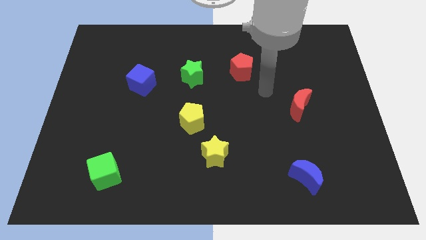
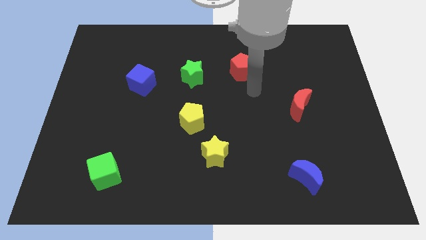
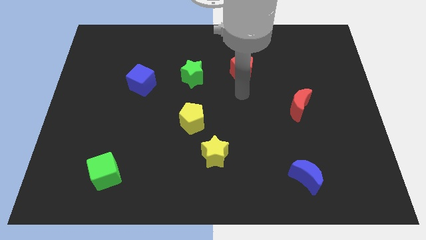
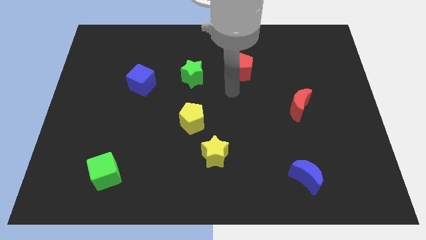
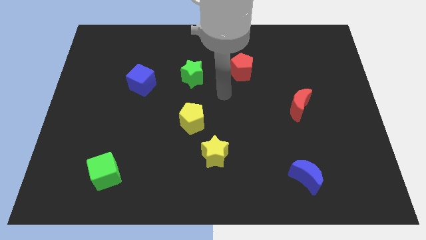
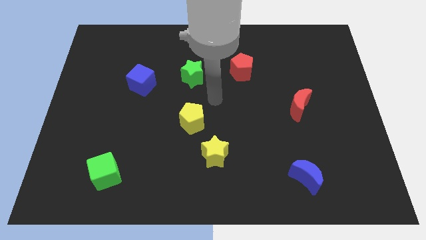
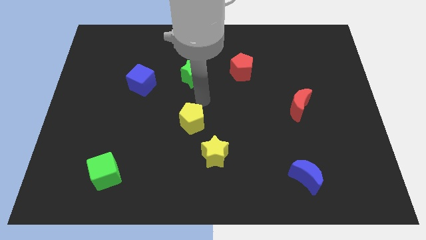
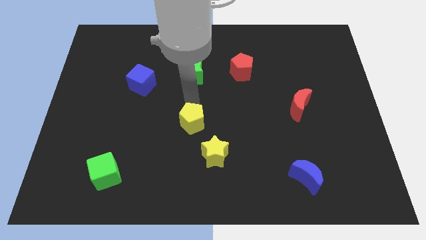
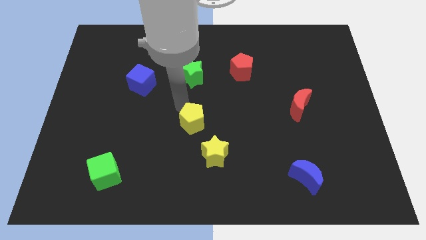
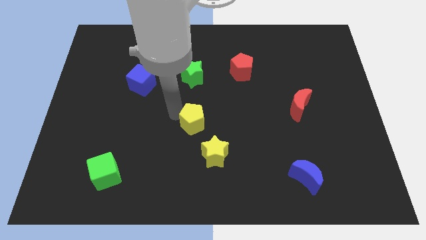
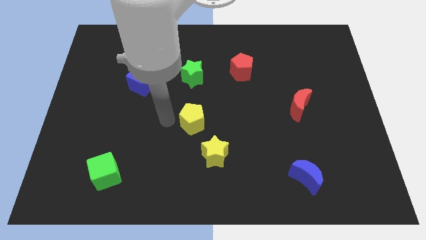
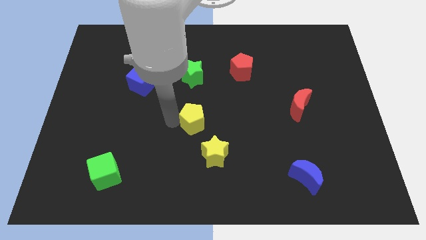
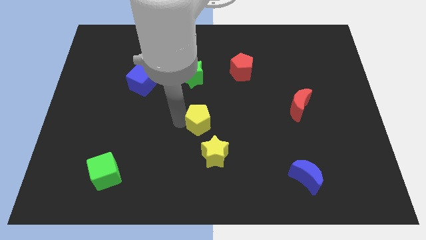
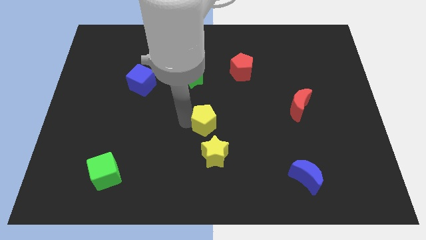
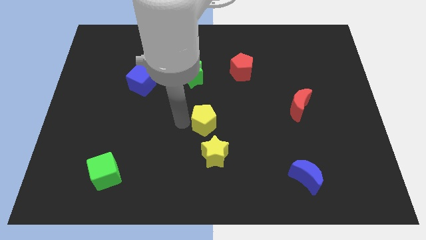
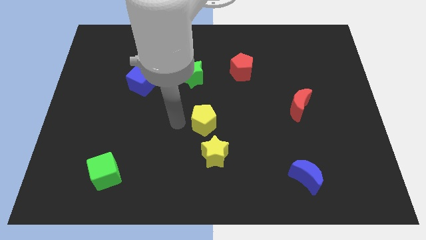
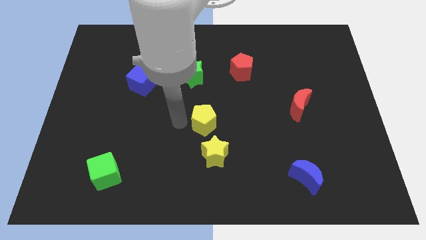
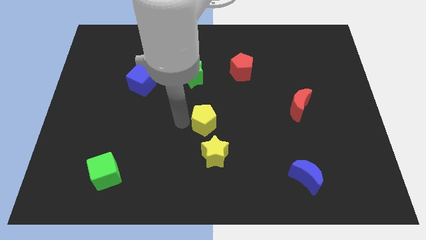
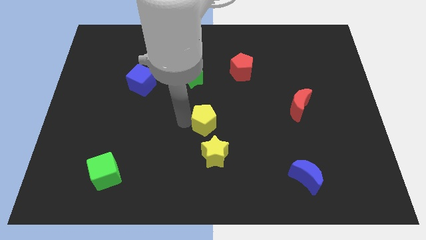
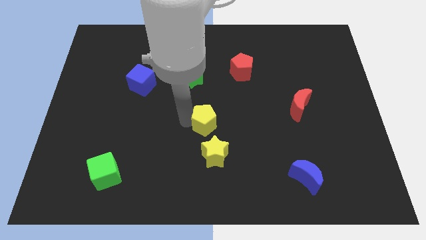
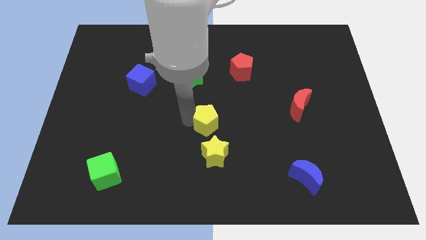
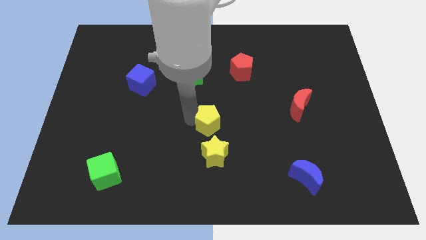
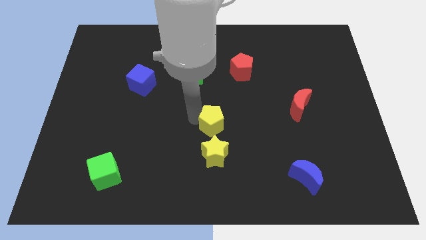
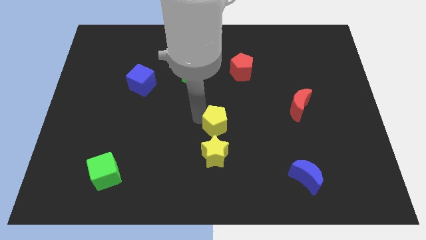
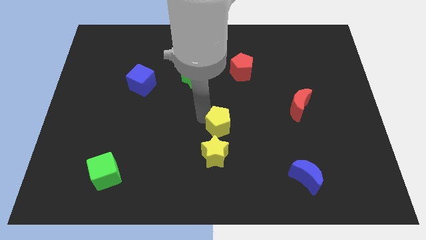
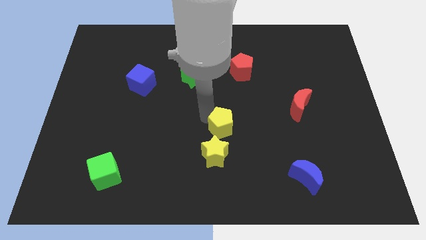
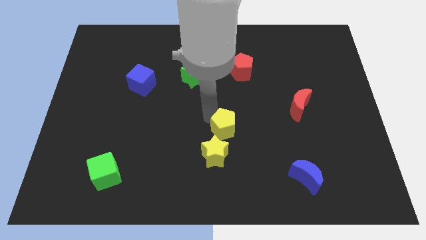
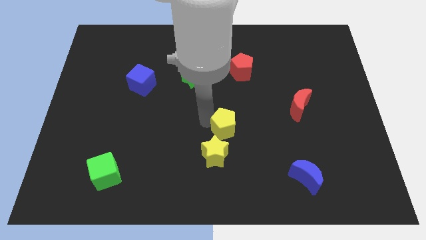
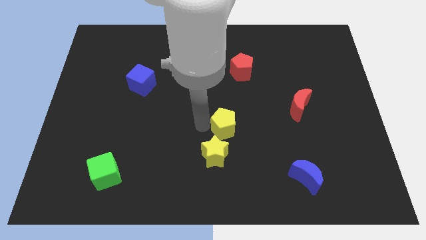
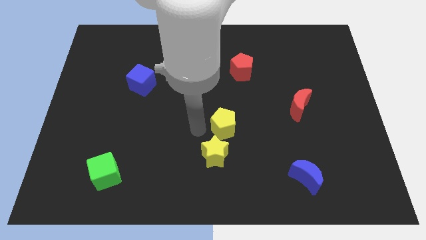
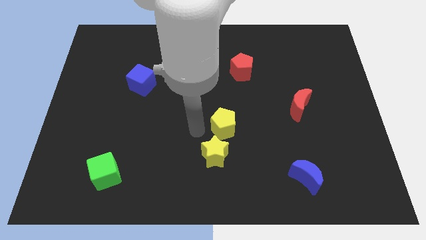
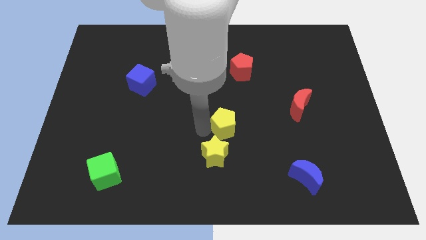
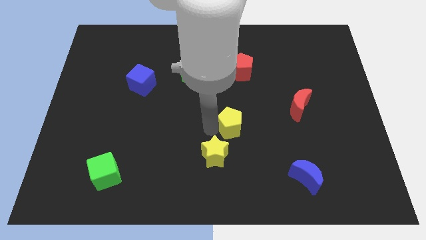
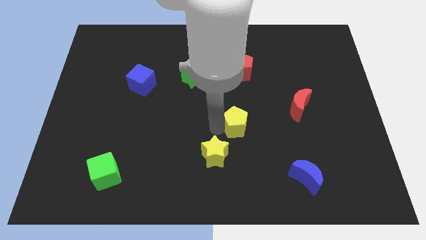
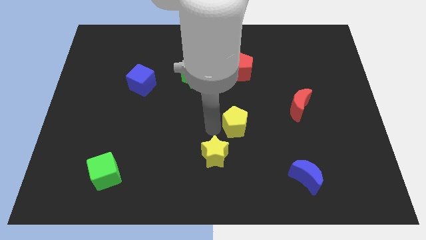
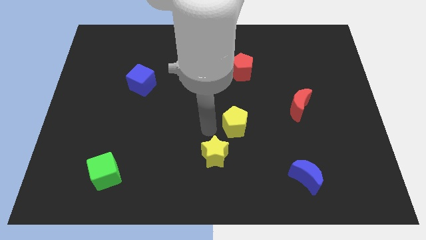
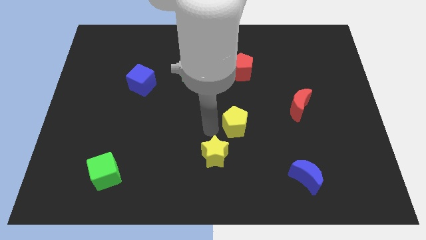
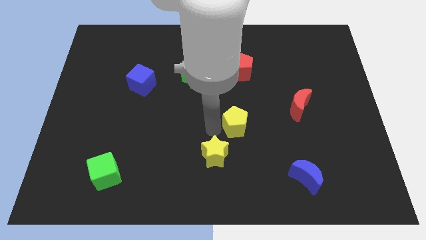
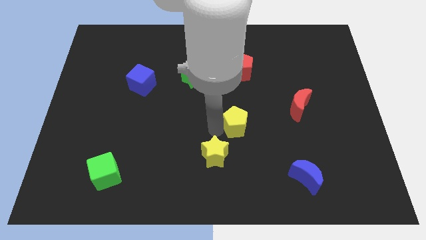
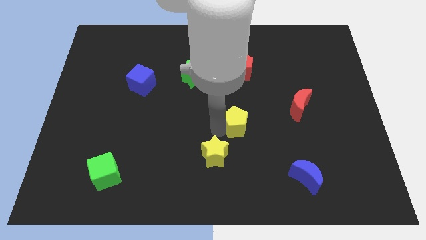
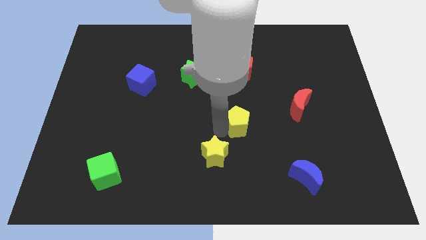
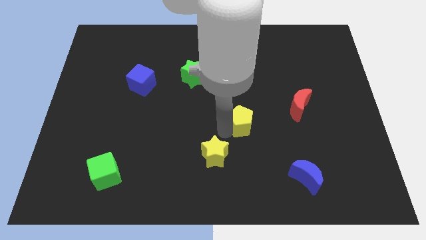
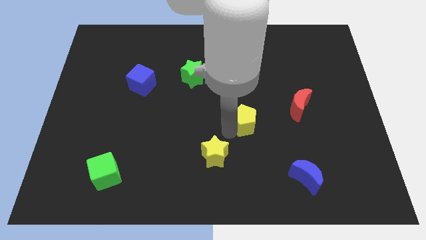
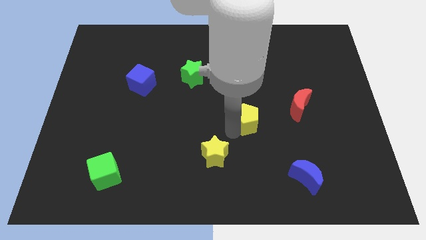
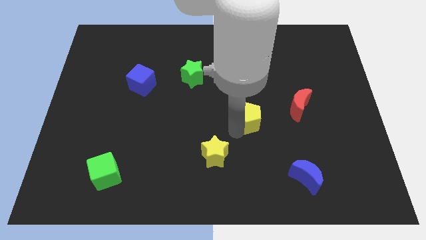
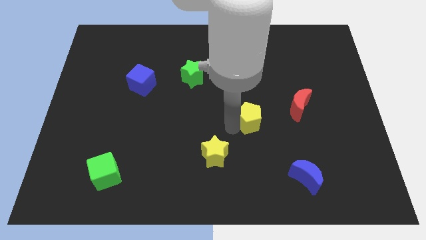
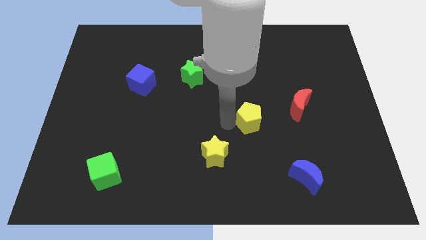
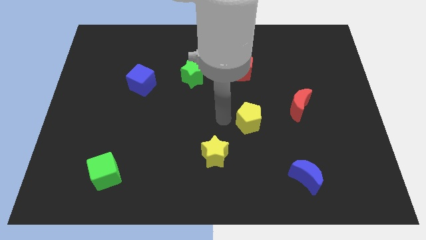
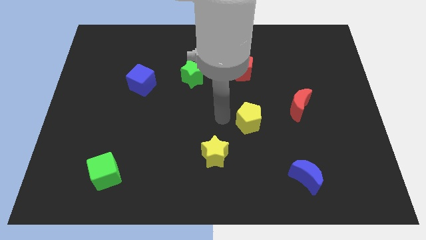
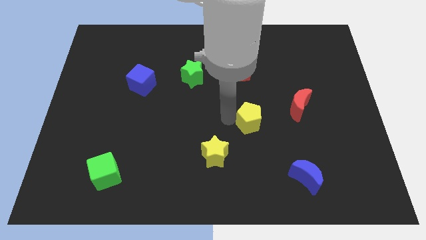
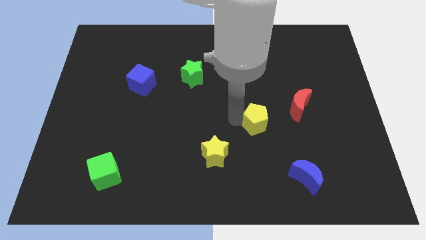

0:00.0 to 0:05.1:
put the yellow pentagon to the bottom left of the red moon

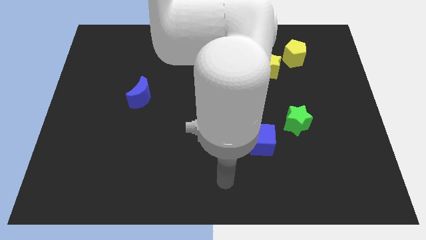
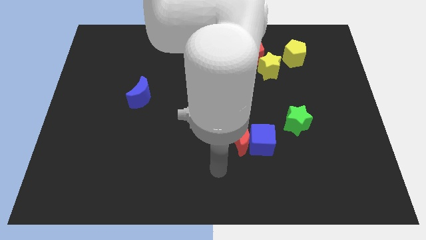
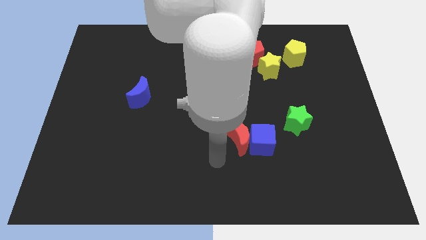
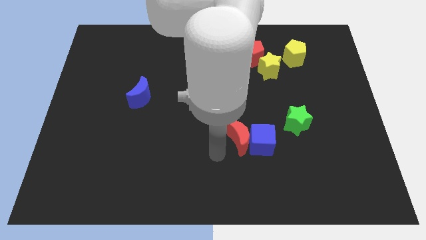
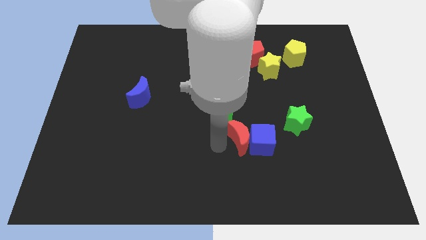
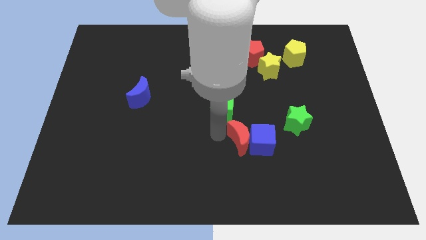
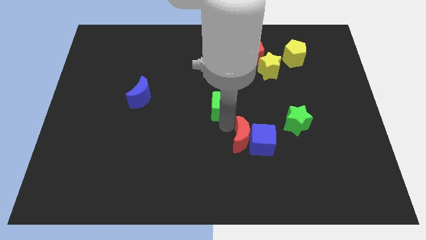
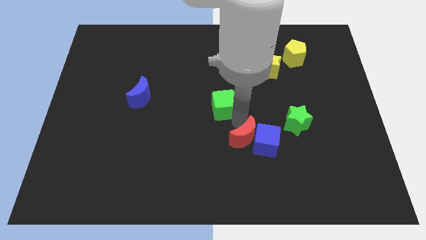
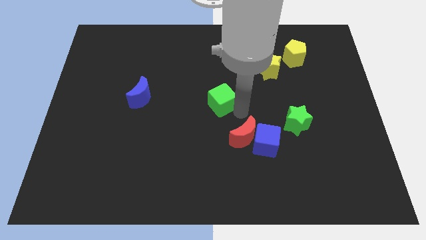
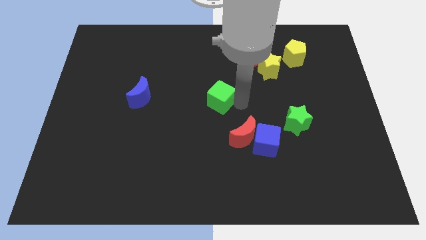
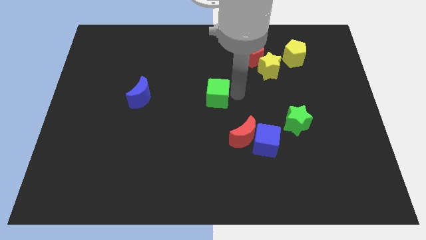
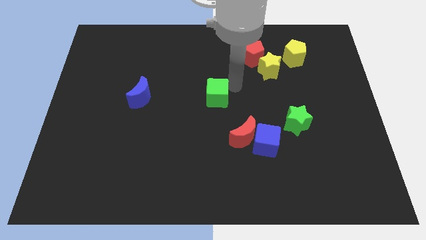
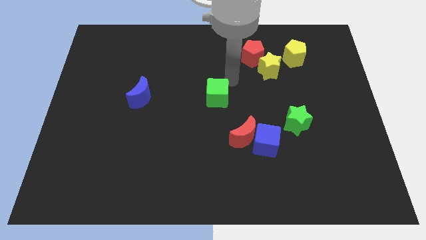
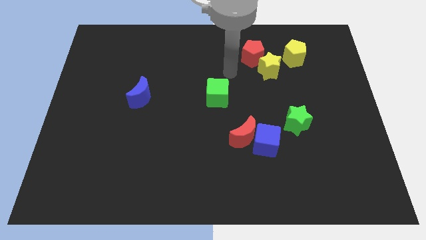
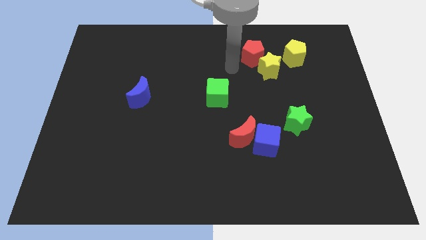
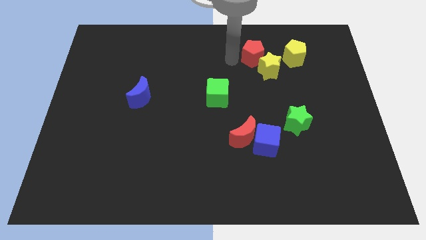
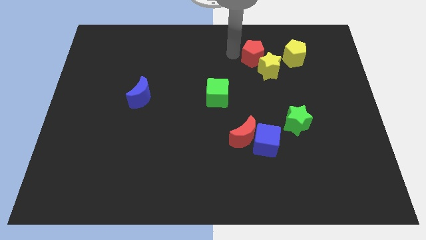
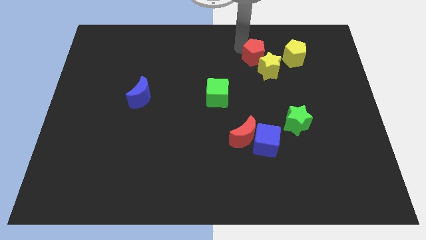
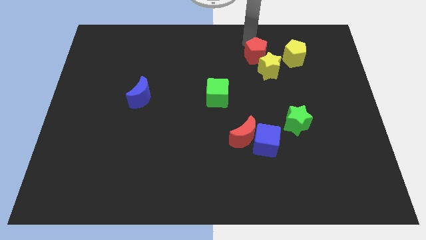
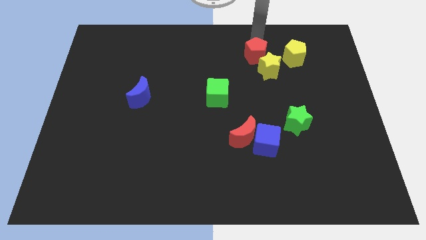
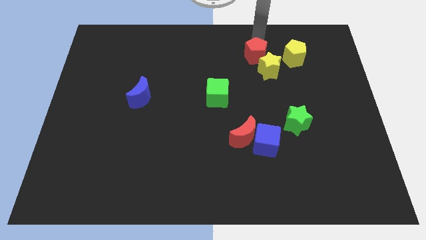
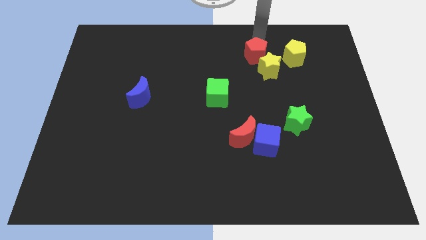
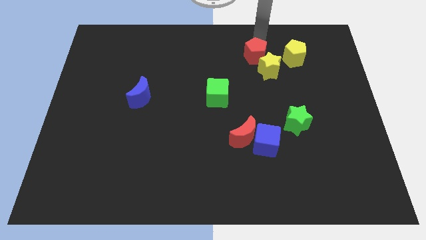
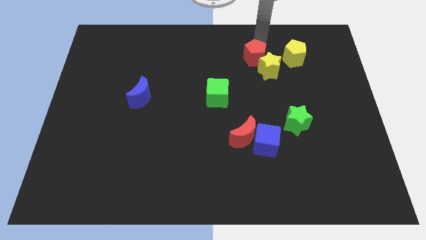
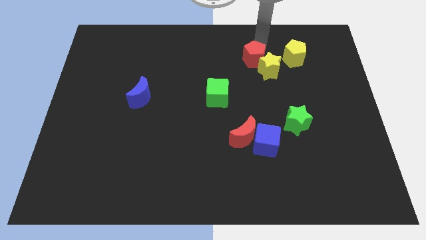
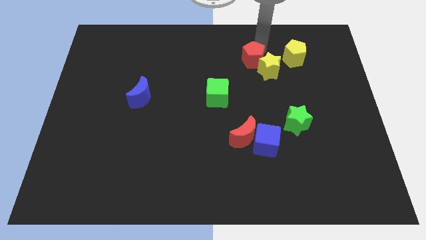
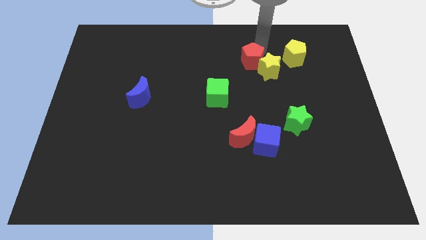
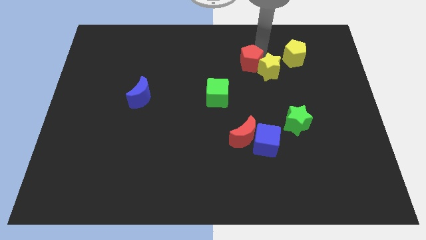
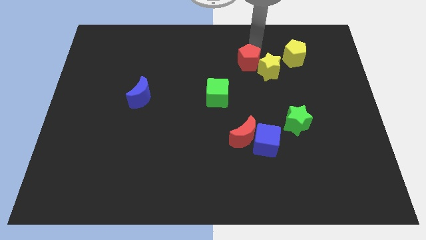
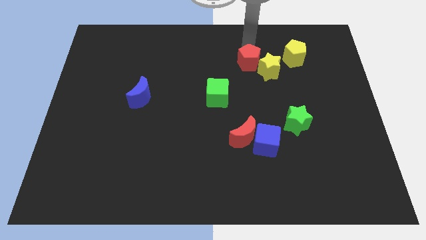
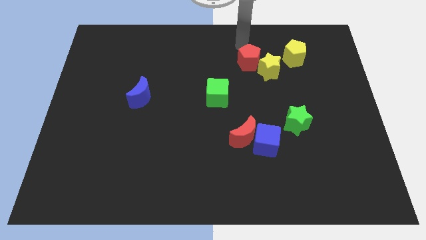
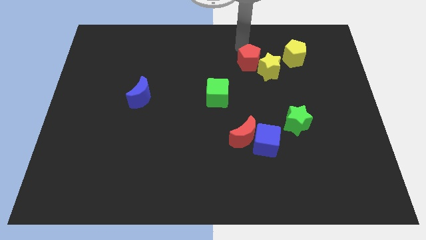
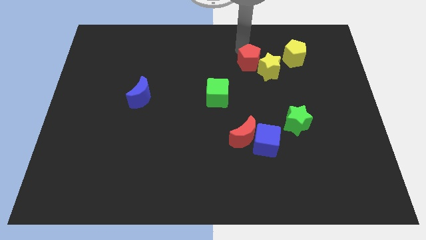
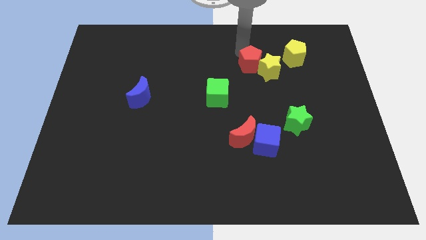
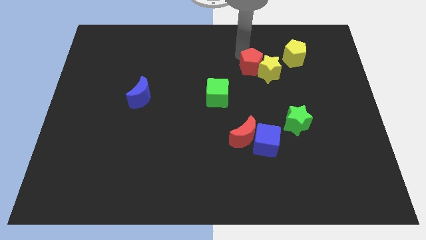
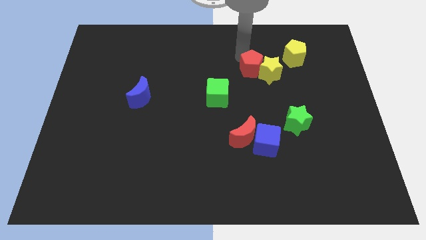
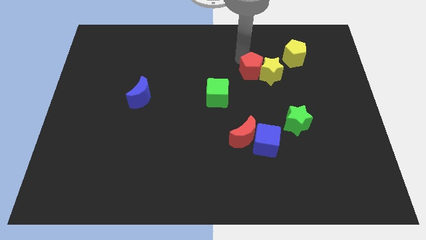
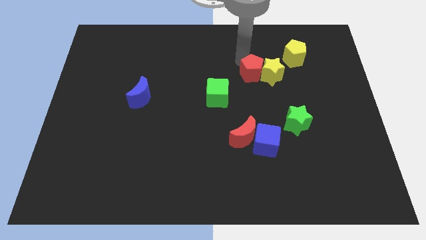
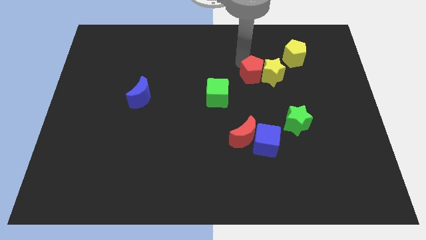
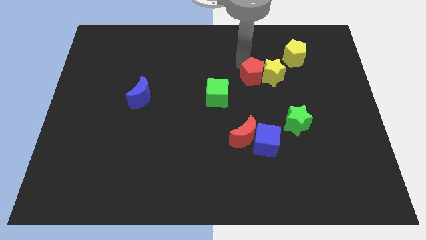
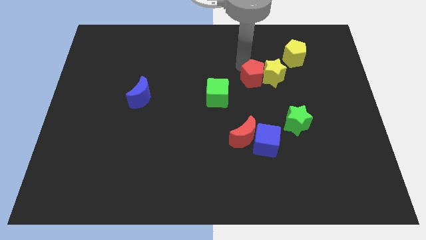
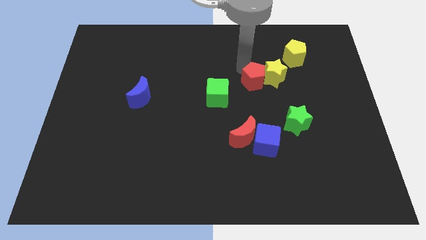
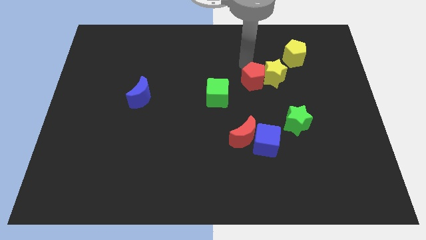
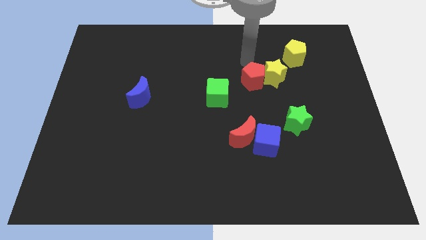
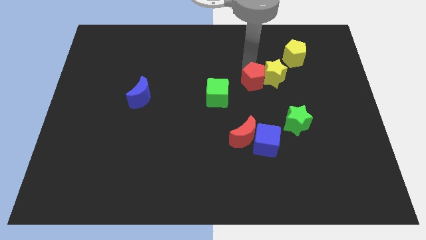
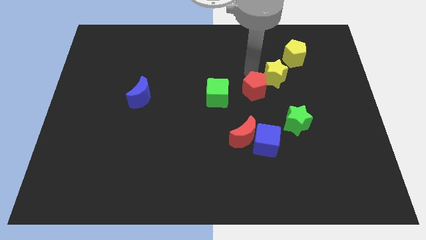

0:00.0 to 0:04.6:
put the red pentagon to the top of the blue cube
